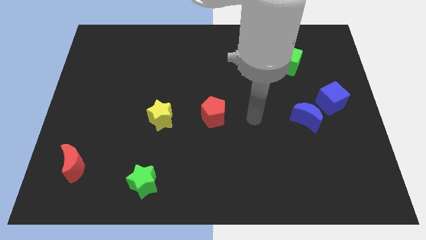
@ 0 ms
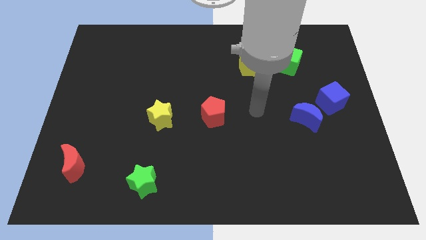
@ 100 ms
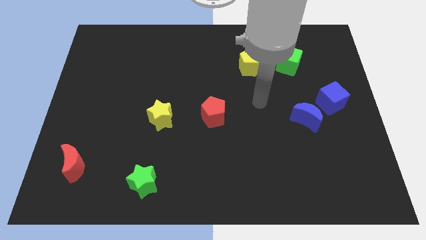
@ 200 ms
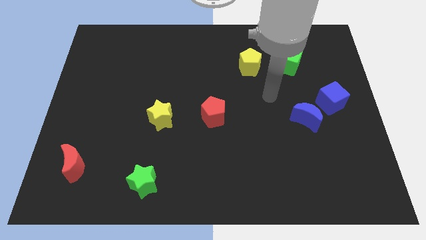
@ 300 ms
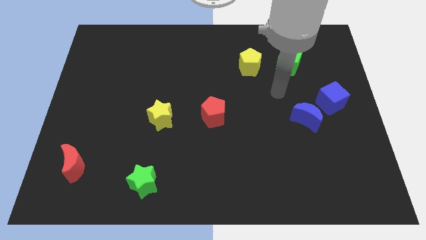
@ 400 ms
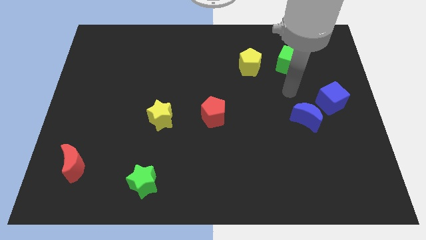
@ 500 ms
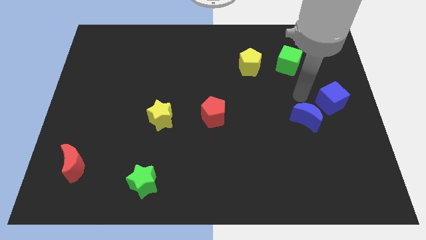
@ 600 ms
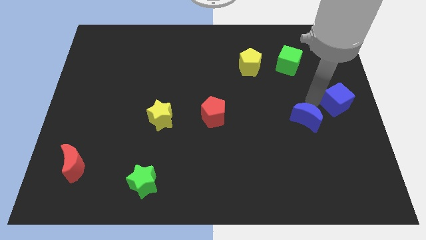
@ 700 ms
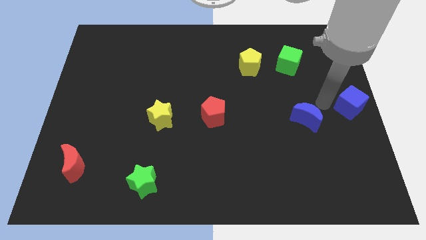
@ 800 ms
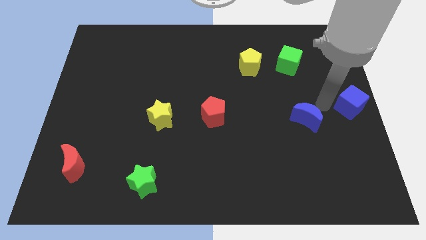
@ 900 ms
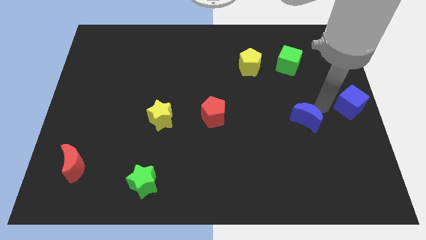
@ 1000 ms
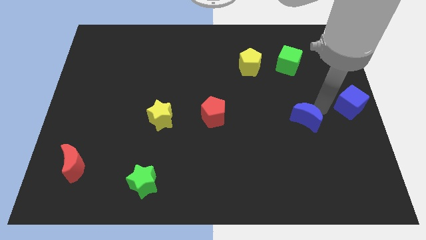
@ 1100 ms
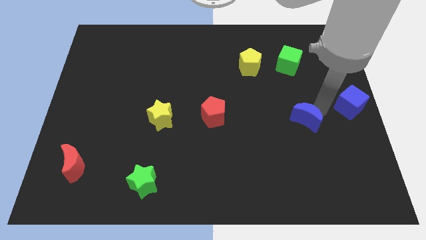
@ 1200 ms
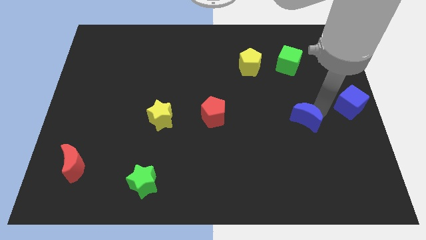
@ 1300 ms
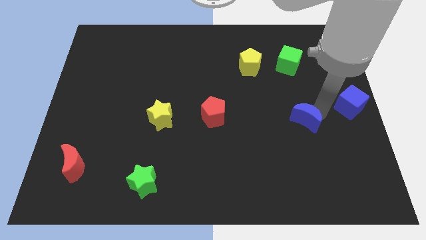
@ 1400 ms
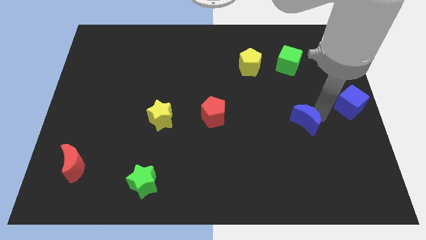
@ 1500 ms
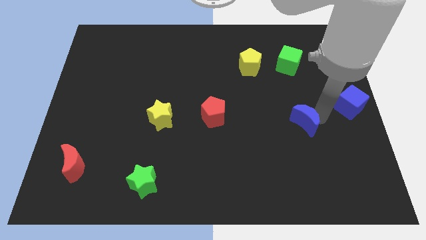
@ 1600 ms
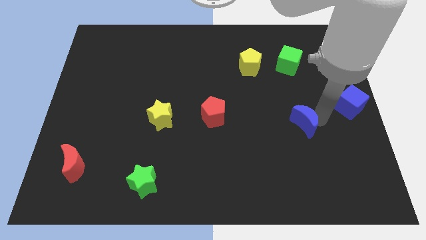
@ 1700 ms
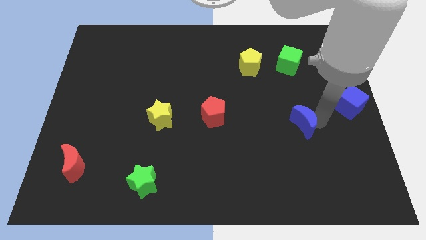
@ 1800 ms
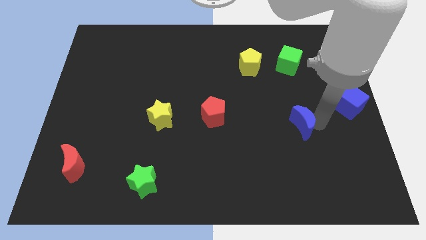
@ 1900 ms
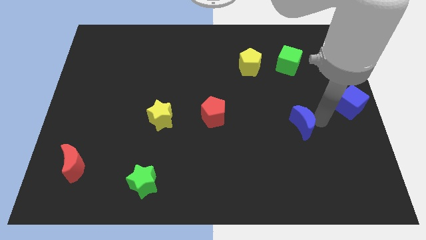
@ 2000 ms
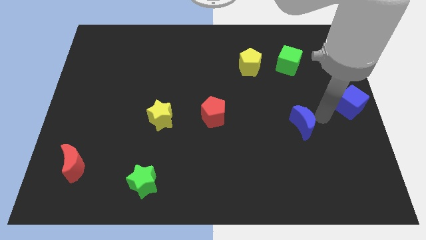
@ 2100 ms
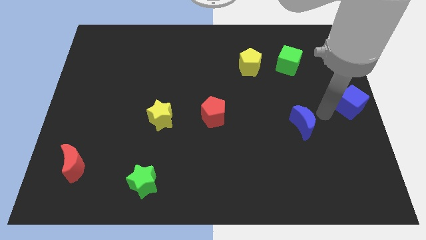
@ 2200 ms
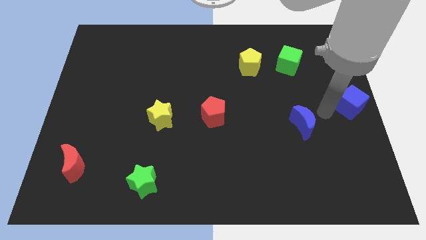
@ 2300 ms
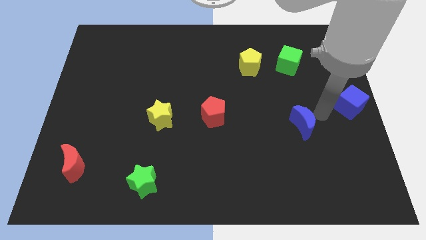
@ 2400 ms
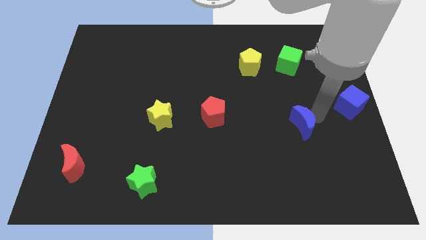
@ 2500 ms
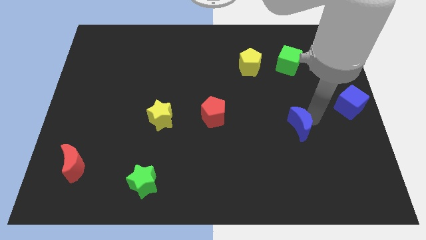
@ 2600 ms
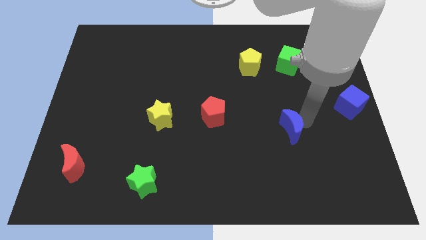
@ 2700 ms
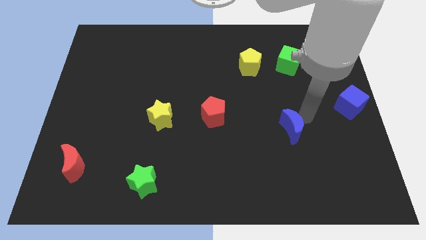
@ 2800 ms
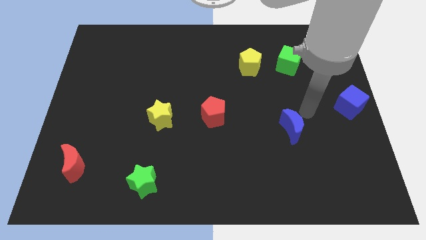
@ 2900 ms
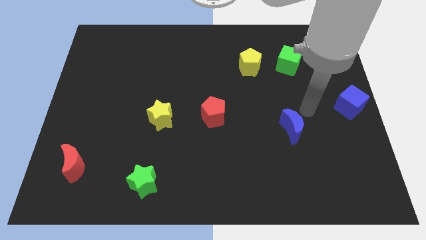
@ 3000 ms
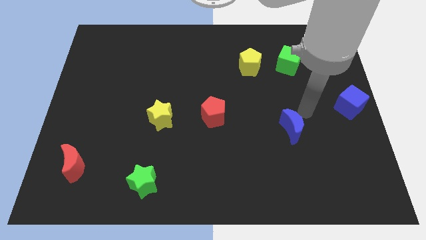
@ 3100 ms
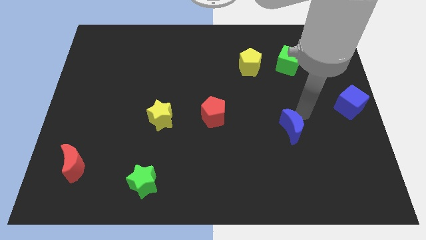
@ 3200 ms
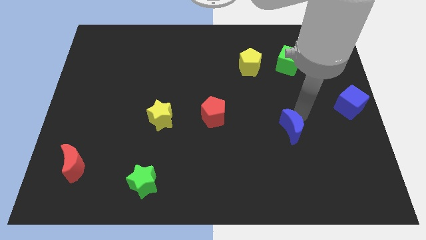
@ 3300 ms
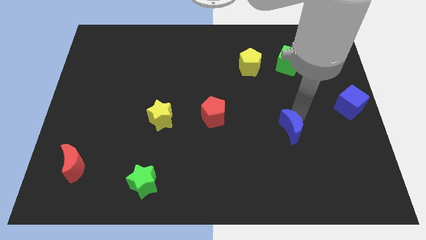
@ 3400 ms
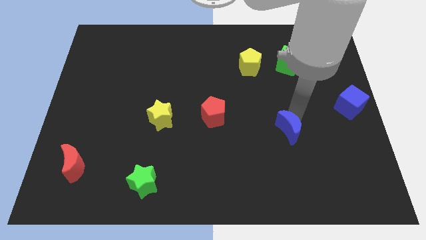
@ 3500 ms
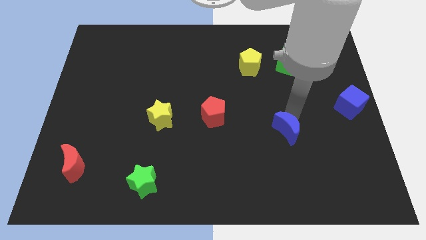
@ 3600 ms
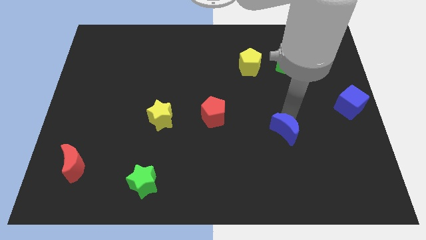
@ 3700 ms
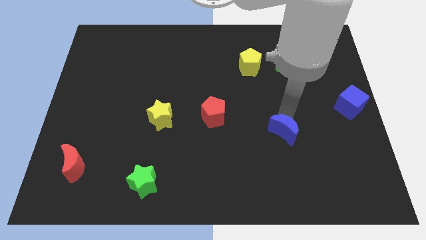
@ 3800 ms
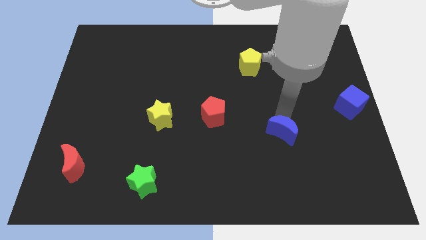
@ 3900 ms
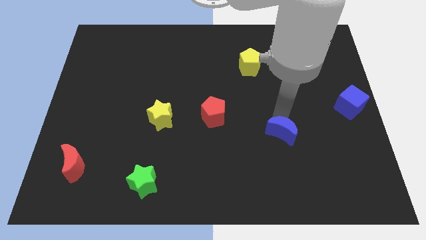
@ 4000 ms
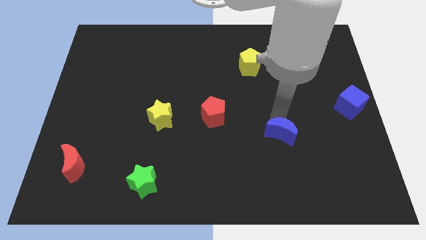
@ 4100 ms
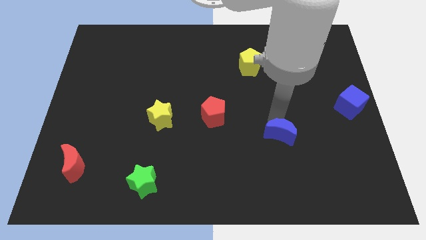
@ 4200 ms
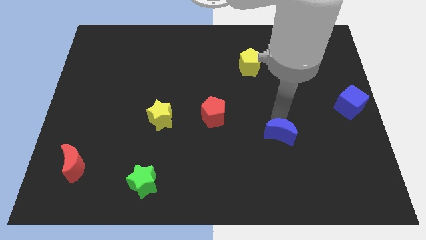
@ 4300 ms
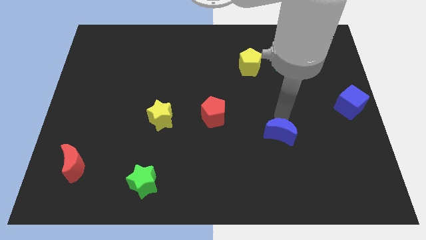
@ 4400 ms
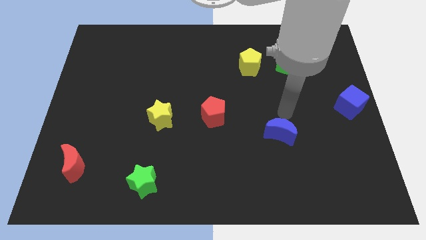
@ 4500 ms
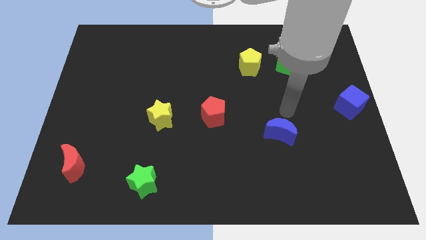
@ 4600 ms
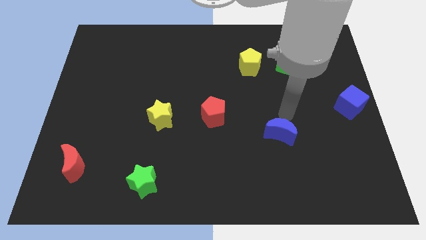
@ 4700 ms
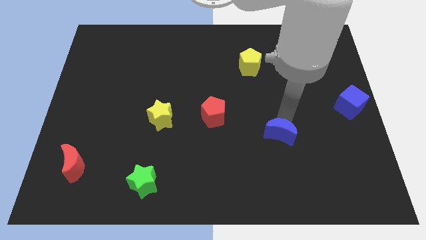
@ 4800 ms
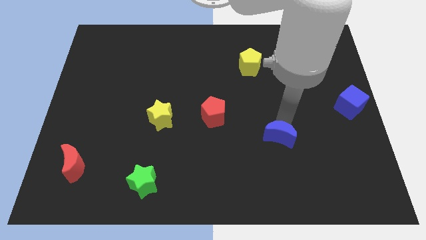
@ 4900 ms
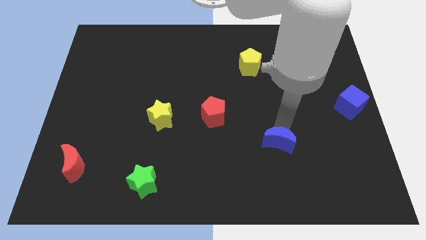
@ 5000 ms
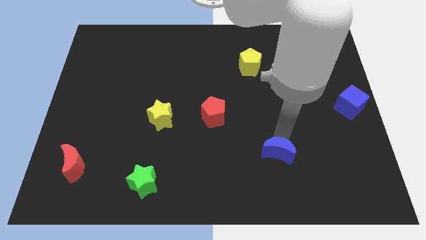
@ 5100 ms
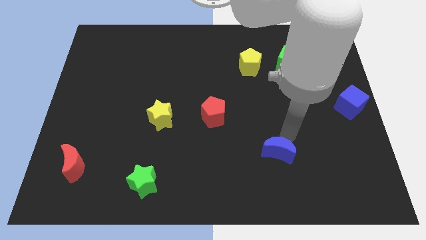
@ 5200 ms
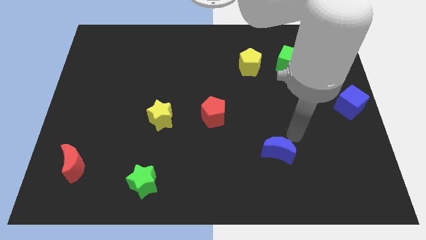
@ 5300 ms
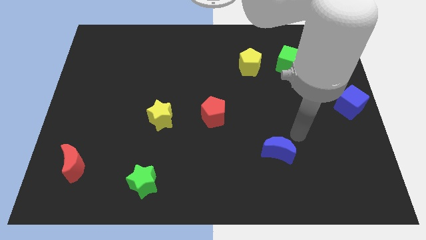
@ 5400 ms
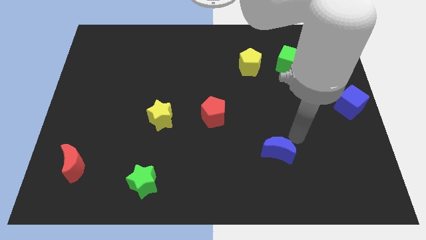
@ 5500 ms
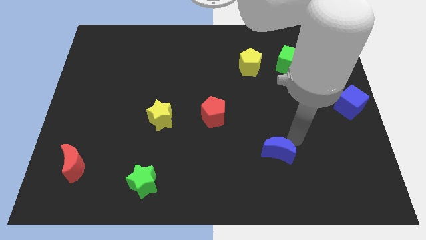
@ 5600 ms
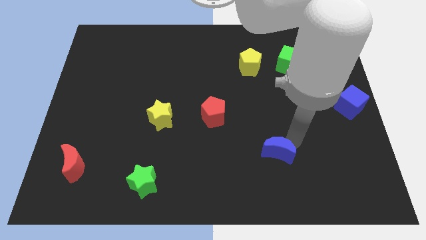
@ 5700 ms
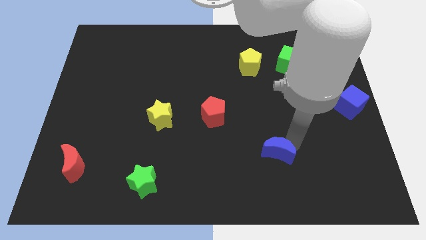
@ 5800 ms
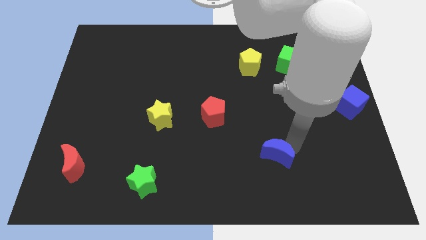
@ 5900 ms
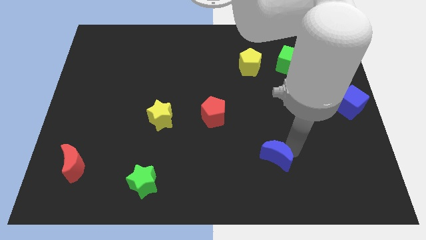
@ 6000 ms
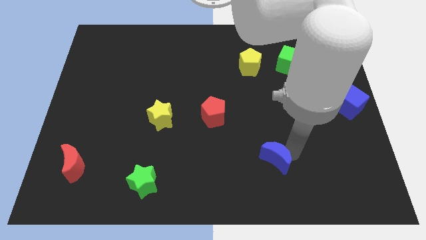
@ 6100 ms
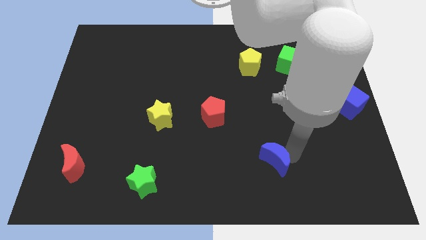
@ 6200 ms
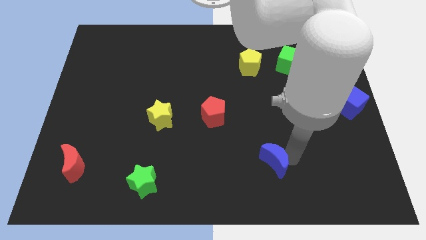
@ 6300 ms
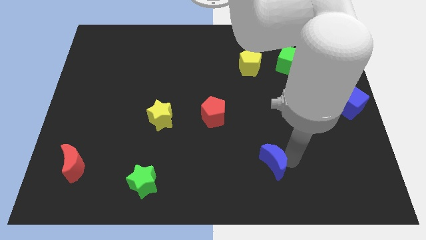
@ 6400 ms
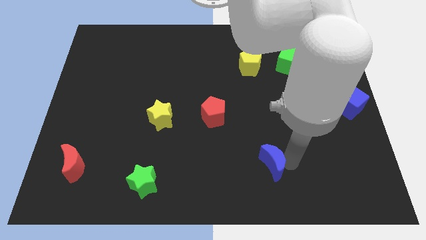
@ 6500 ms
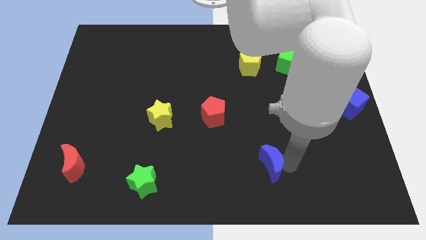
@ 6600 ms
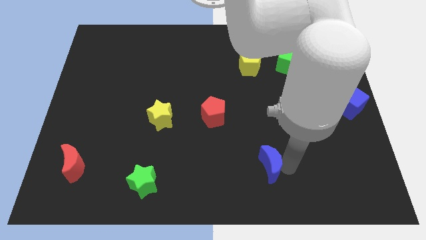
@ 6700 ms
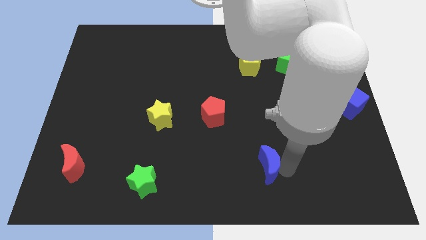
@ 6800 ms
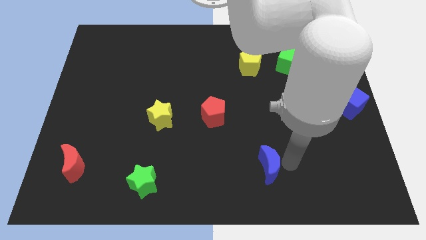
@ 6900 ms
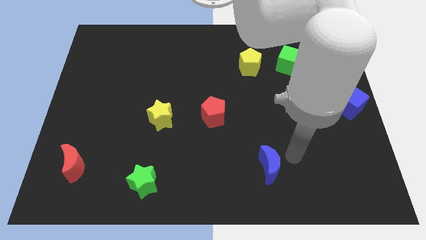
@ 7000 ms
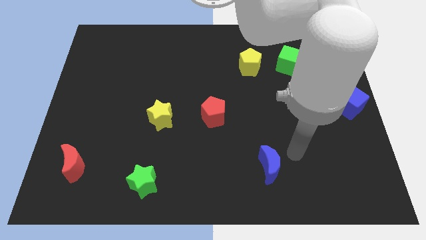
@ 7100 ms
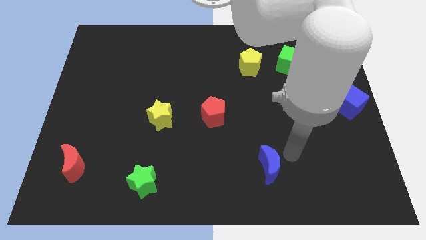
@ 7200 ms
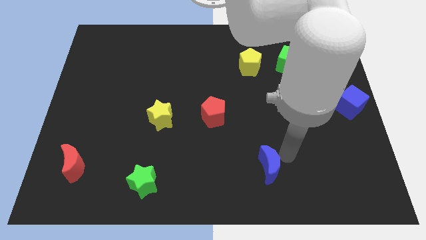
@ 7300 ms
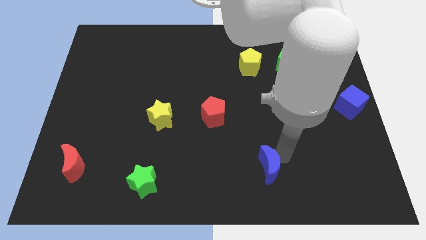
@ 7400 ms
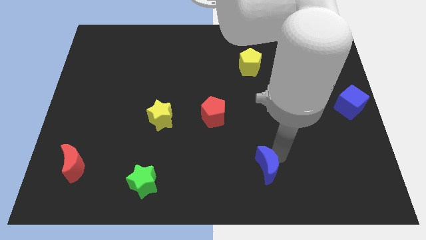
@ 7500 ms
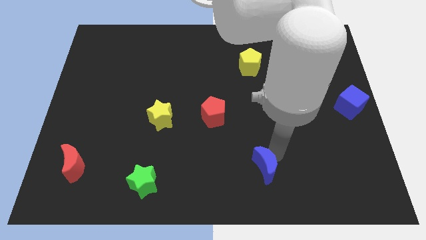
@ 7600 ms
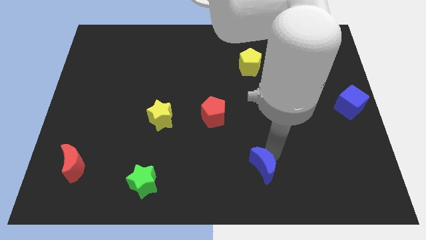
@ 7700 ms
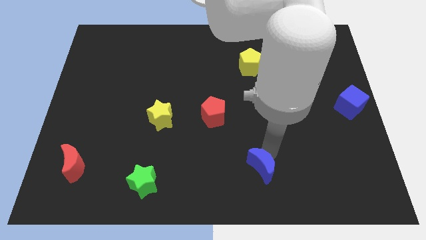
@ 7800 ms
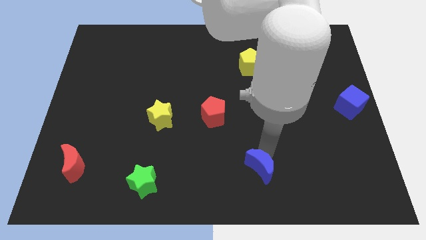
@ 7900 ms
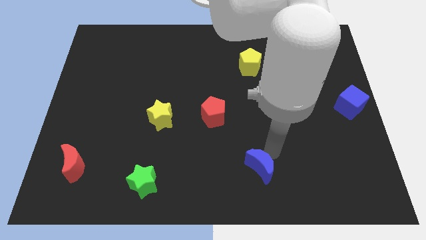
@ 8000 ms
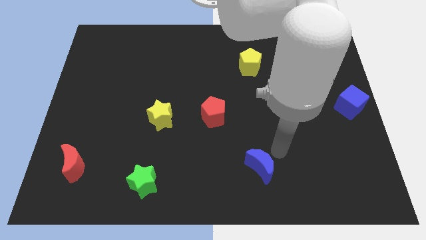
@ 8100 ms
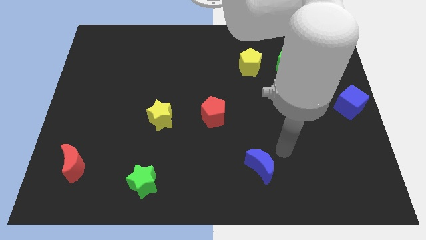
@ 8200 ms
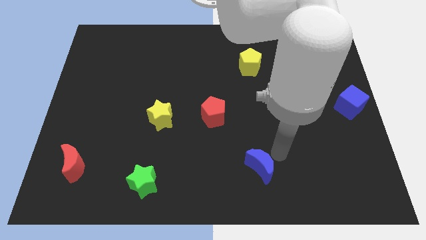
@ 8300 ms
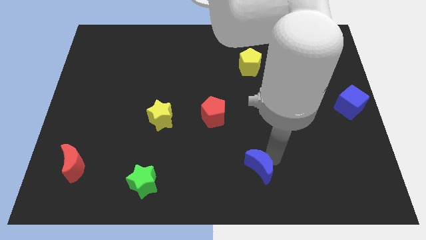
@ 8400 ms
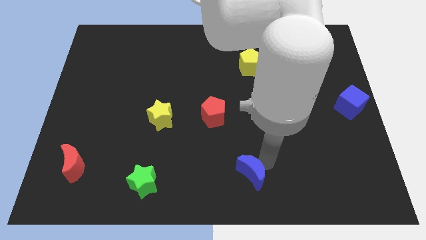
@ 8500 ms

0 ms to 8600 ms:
put the blue moon to the bottom side
